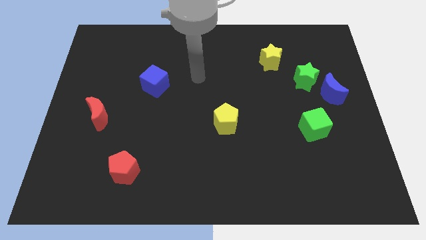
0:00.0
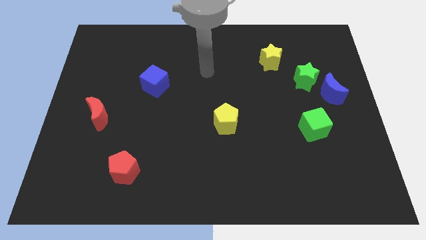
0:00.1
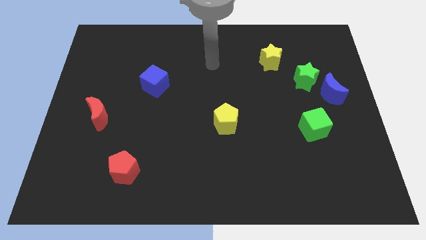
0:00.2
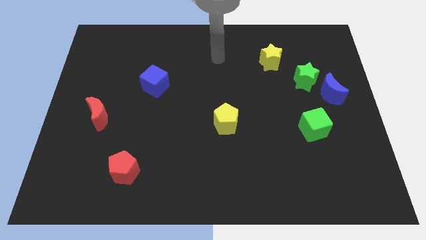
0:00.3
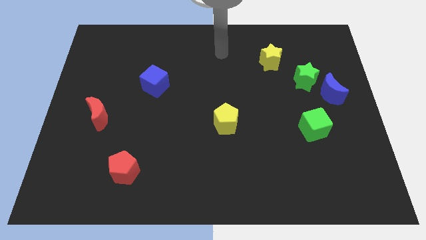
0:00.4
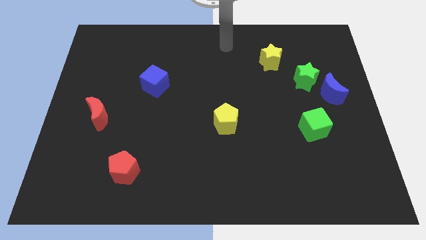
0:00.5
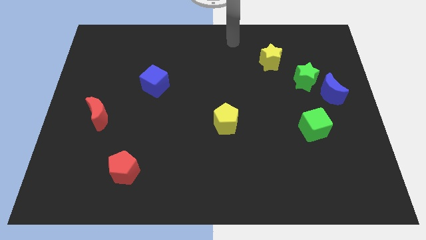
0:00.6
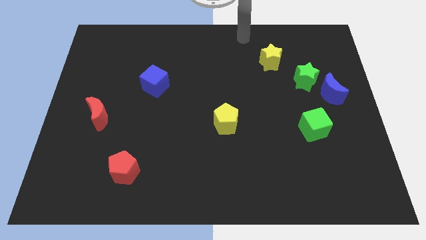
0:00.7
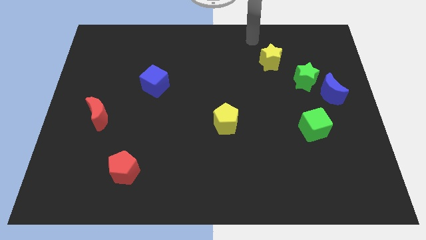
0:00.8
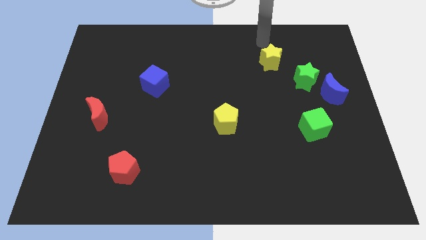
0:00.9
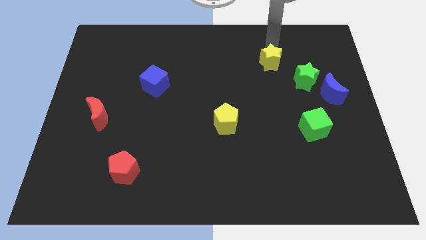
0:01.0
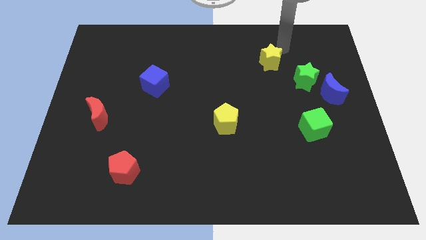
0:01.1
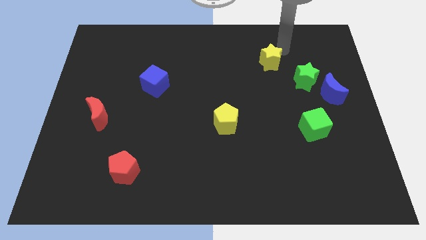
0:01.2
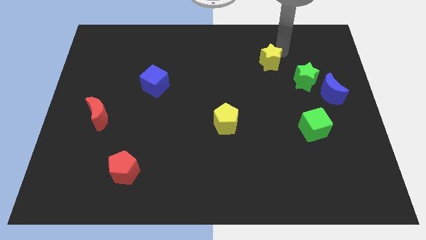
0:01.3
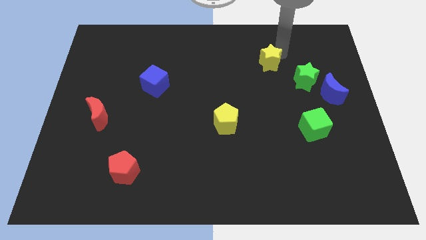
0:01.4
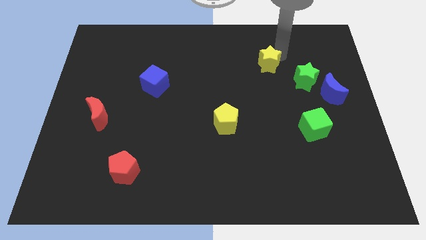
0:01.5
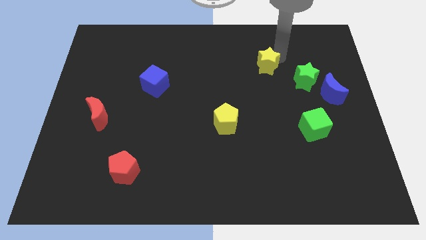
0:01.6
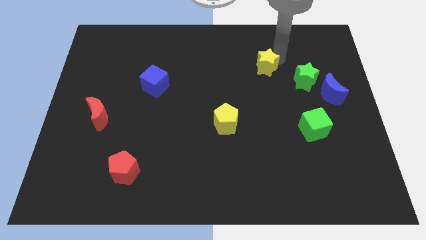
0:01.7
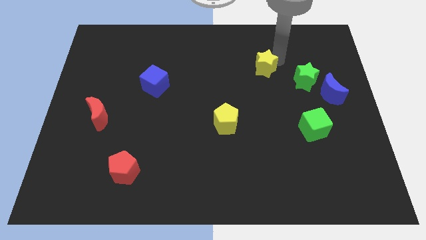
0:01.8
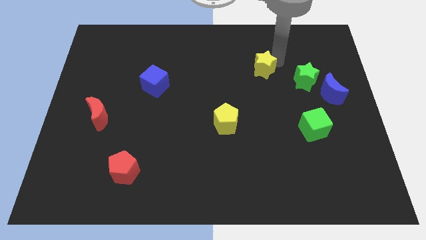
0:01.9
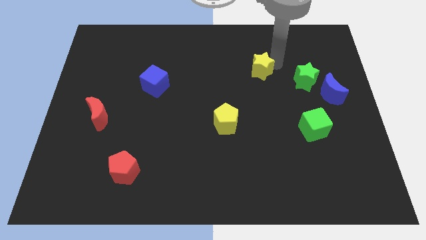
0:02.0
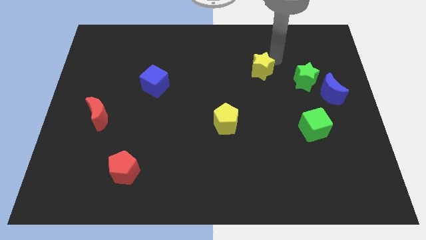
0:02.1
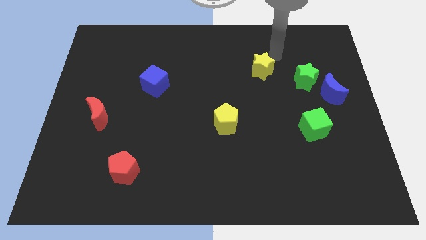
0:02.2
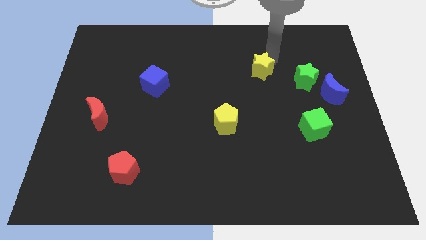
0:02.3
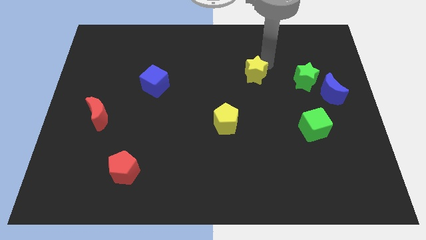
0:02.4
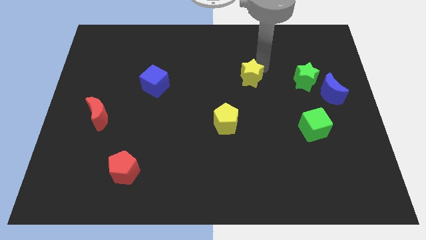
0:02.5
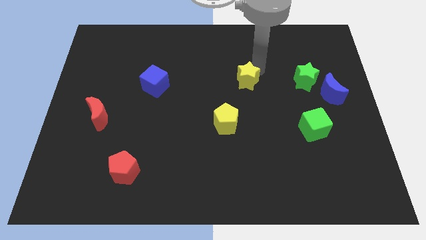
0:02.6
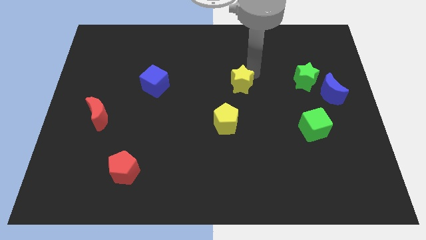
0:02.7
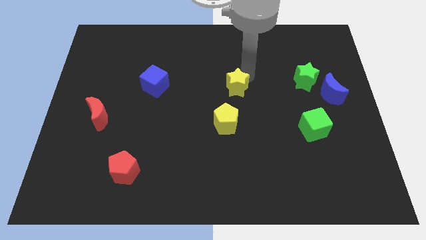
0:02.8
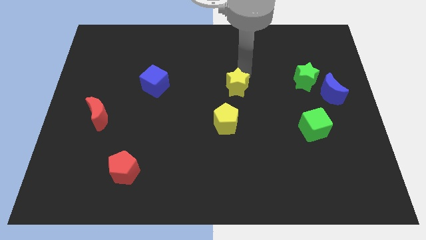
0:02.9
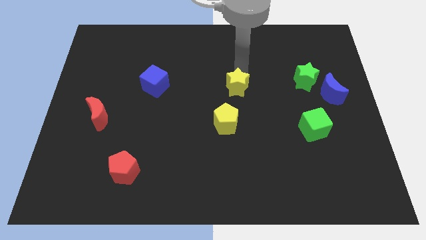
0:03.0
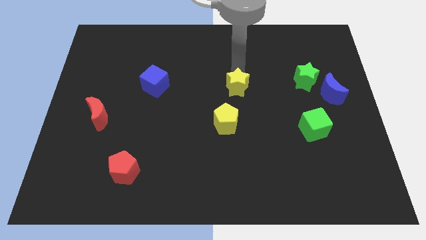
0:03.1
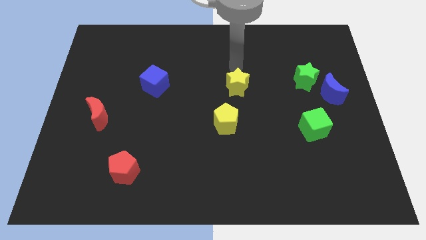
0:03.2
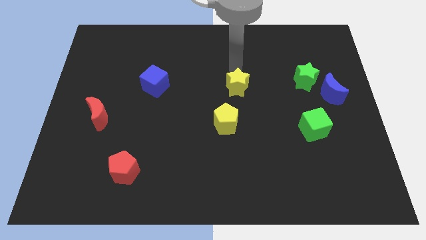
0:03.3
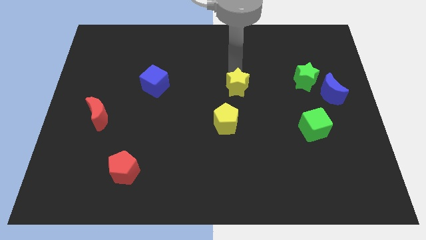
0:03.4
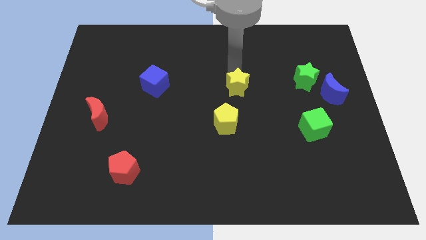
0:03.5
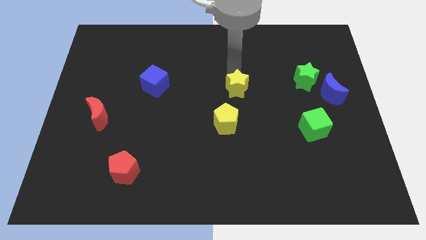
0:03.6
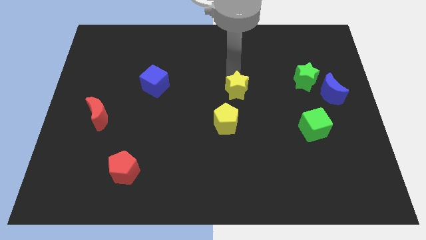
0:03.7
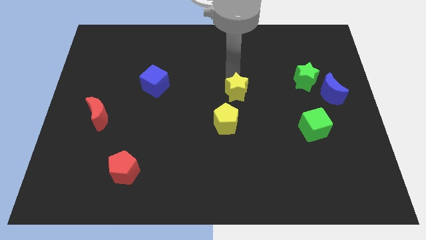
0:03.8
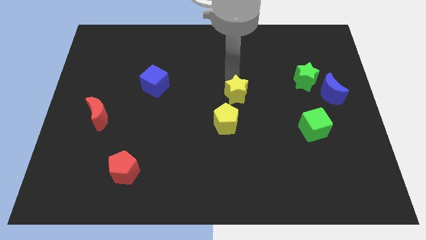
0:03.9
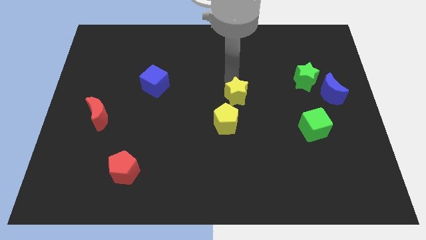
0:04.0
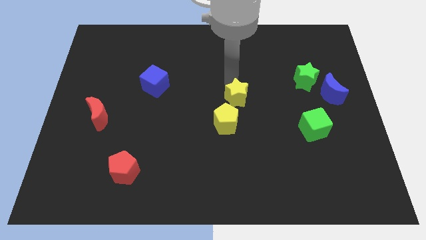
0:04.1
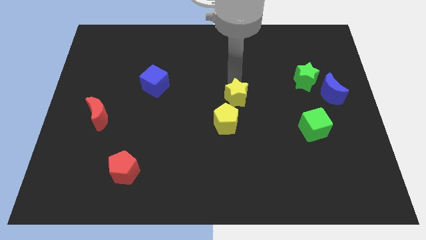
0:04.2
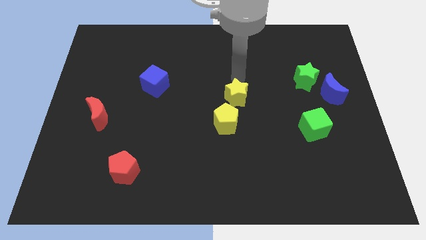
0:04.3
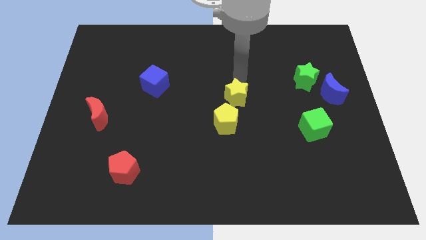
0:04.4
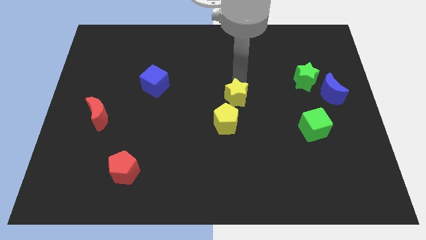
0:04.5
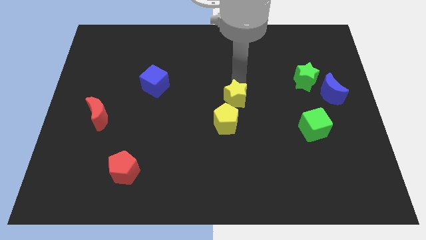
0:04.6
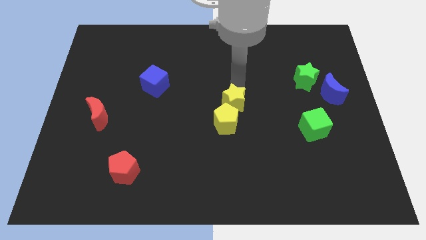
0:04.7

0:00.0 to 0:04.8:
put the yellow star next to the yellow pentagon

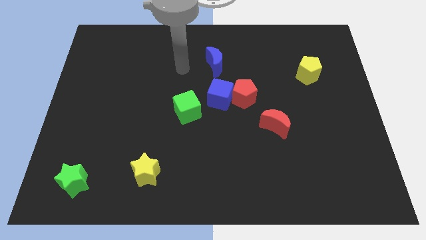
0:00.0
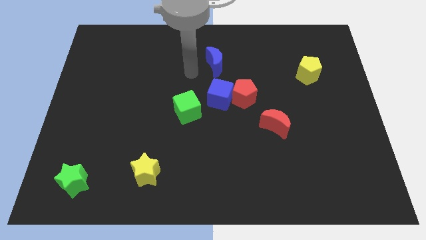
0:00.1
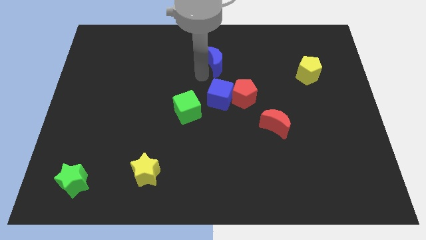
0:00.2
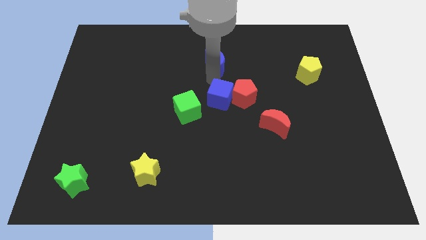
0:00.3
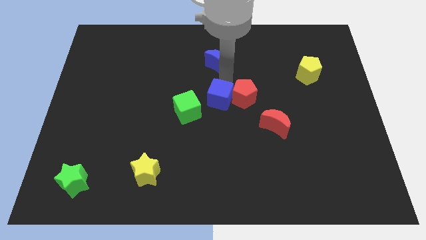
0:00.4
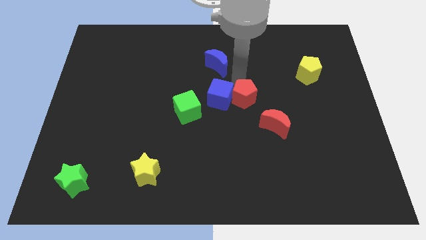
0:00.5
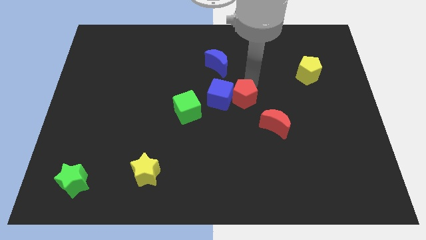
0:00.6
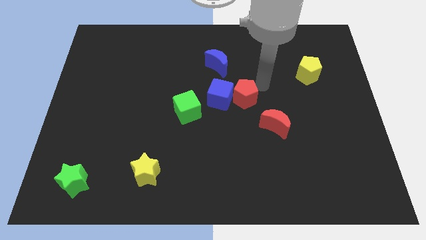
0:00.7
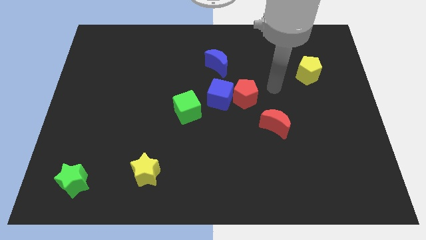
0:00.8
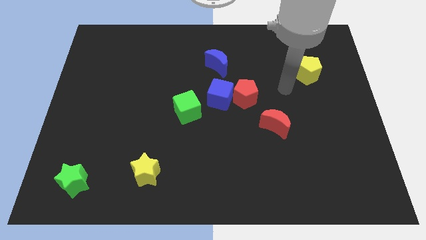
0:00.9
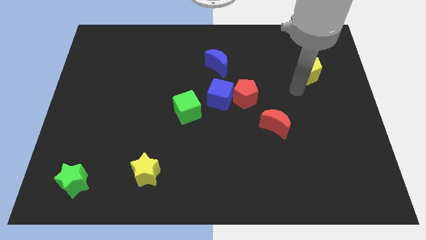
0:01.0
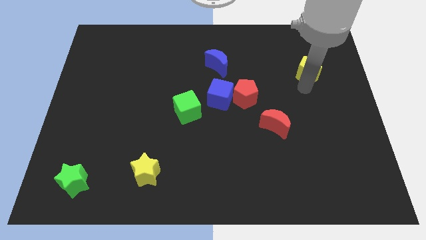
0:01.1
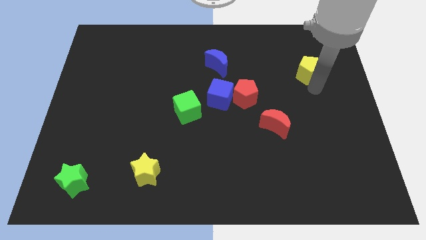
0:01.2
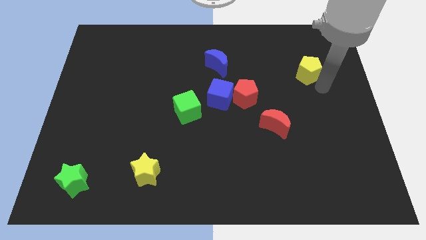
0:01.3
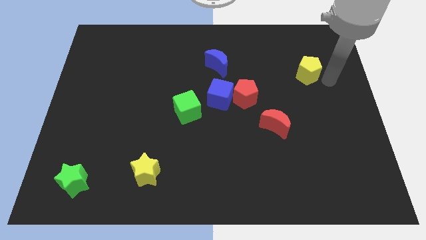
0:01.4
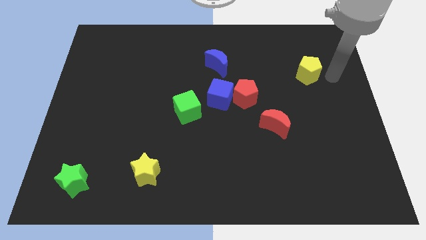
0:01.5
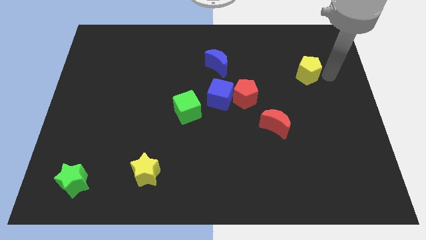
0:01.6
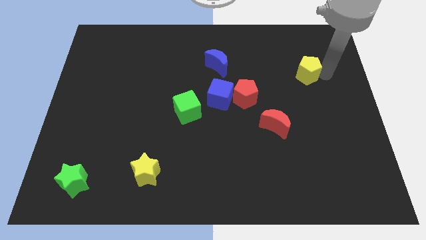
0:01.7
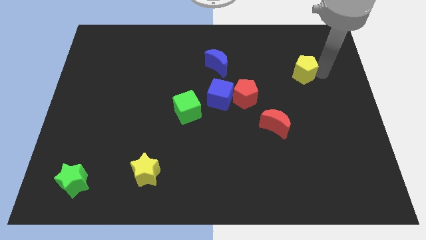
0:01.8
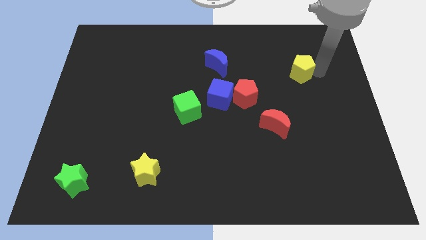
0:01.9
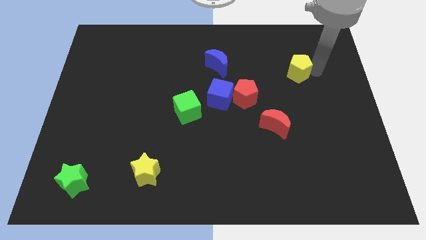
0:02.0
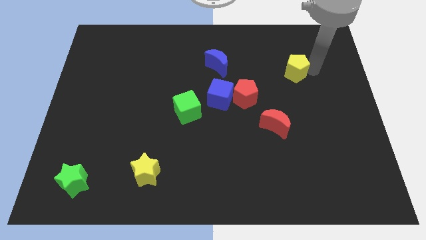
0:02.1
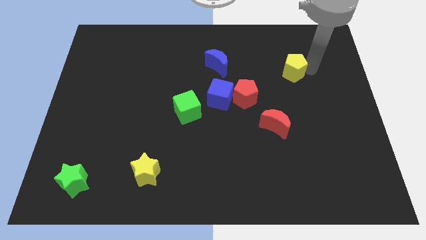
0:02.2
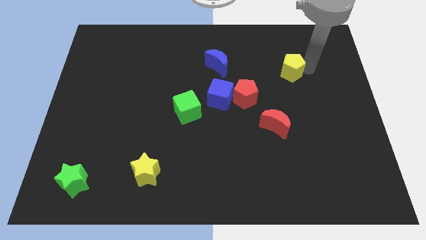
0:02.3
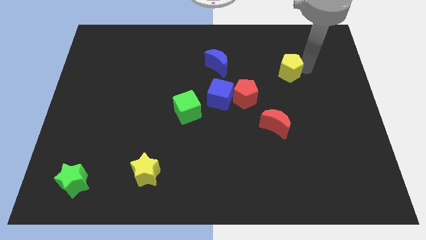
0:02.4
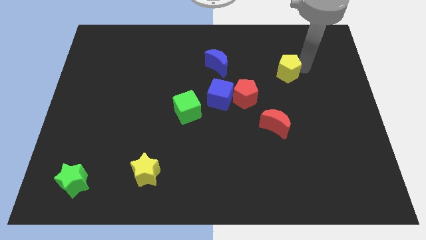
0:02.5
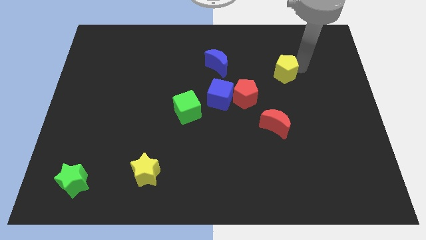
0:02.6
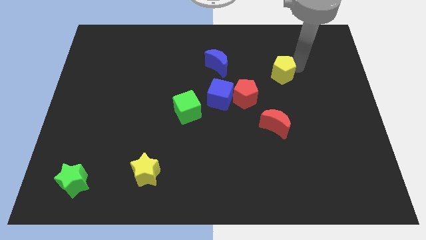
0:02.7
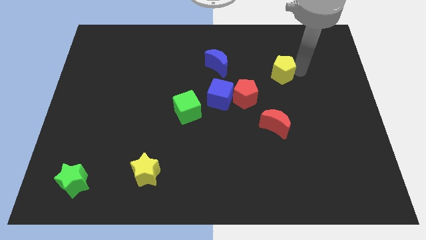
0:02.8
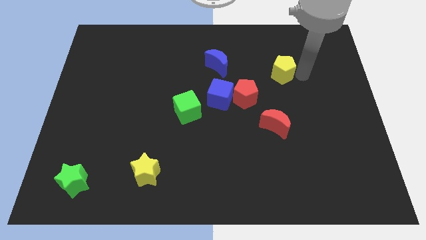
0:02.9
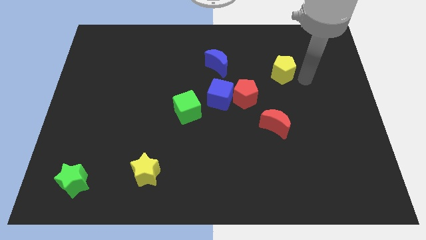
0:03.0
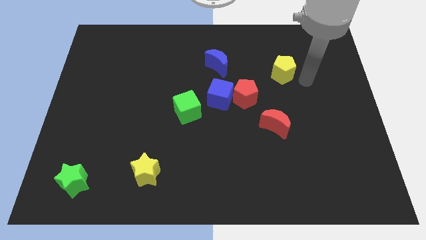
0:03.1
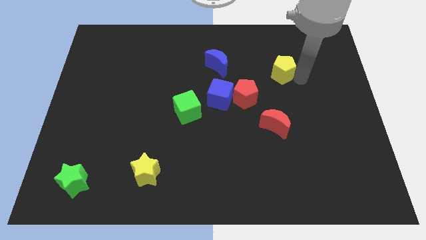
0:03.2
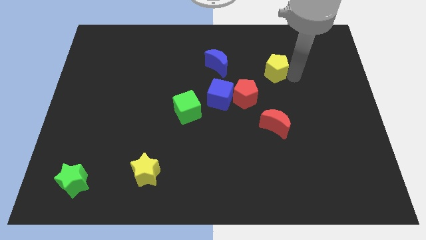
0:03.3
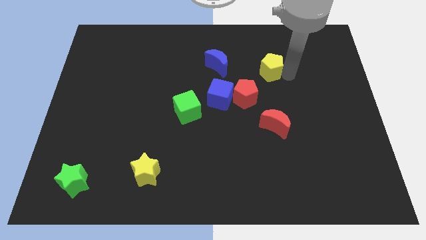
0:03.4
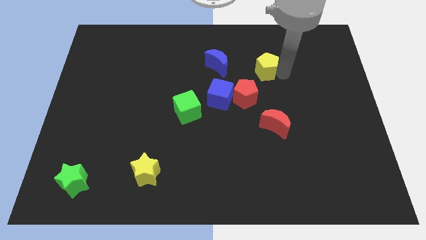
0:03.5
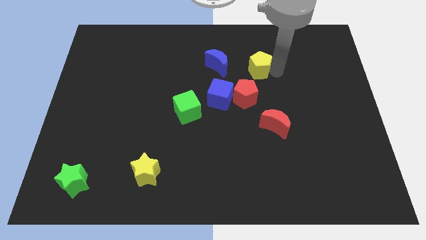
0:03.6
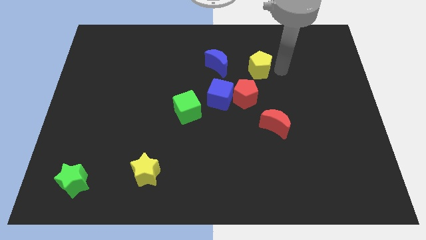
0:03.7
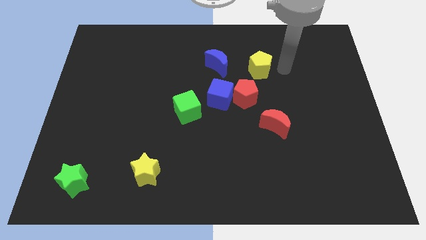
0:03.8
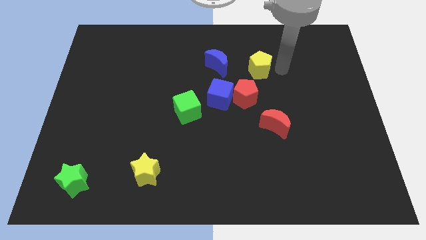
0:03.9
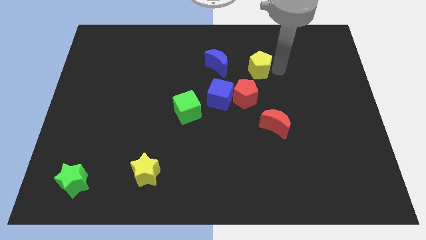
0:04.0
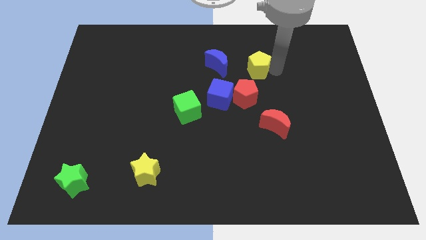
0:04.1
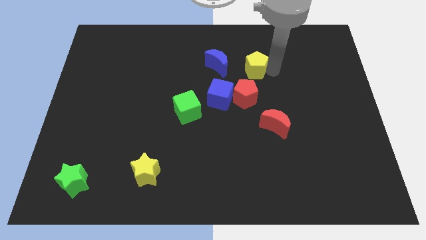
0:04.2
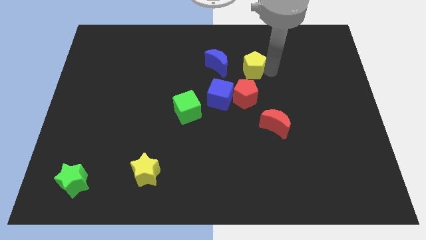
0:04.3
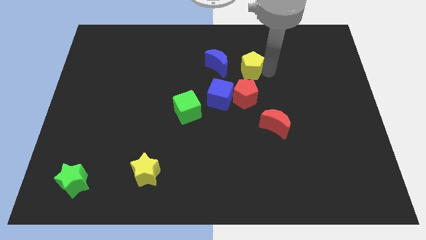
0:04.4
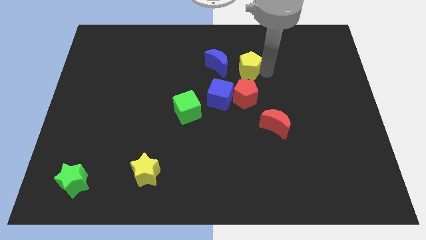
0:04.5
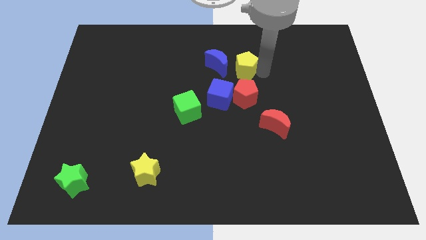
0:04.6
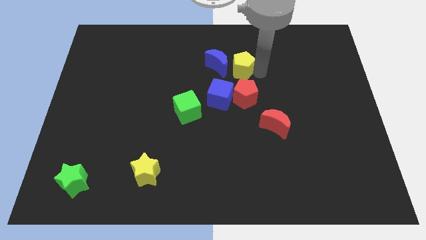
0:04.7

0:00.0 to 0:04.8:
put the yellow pentagon to the blue moon
